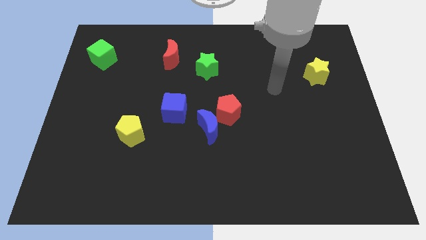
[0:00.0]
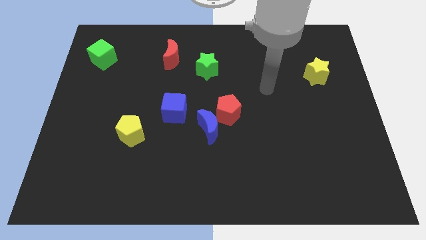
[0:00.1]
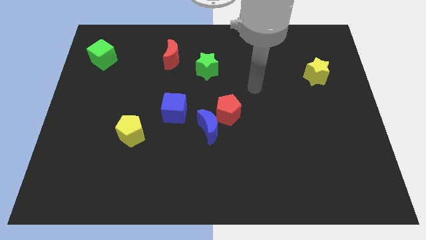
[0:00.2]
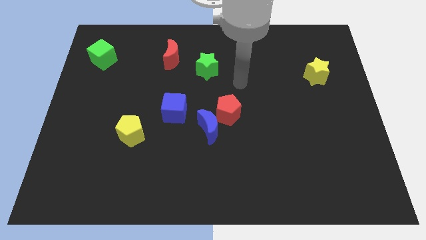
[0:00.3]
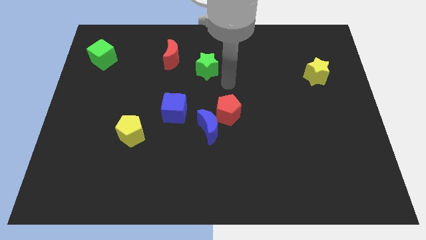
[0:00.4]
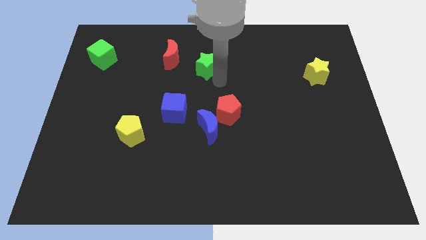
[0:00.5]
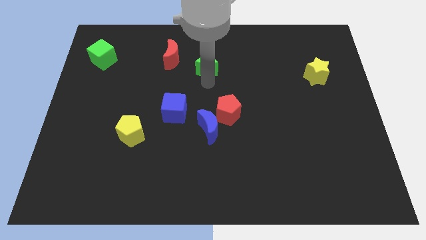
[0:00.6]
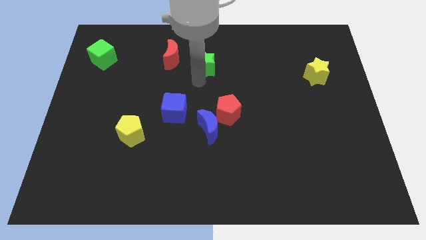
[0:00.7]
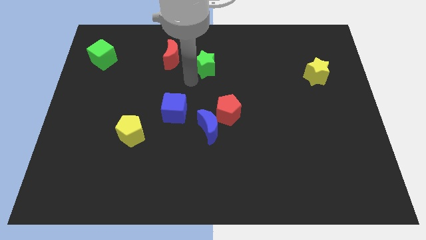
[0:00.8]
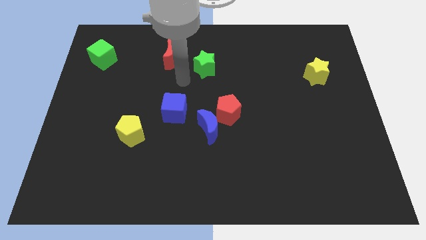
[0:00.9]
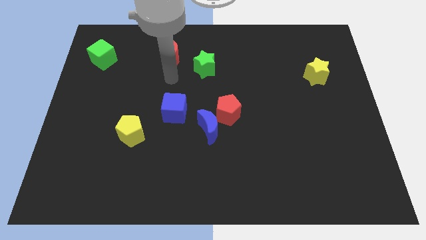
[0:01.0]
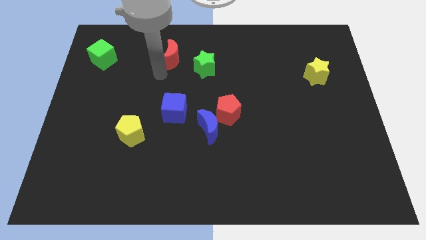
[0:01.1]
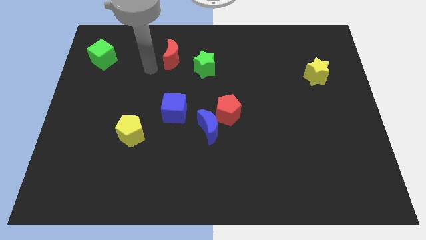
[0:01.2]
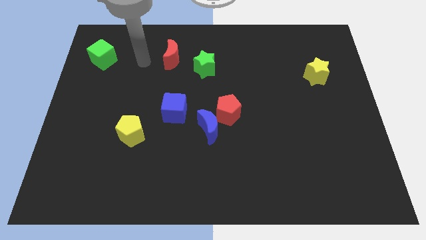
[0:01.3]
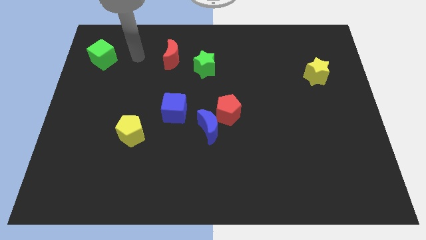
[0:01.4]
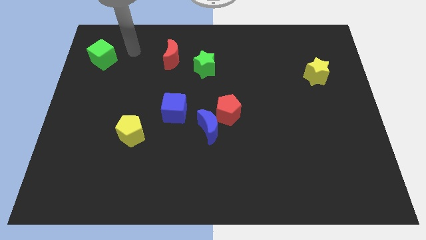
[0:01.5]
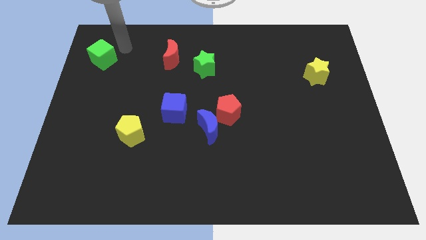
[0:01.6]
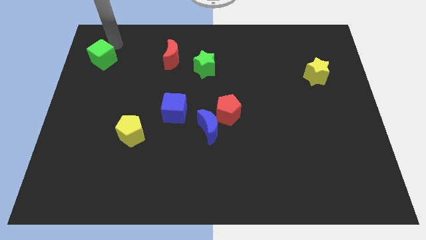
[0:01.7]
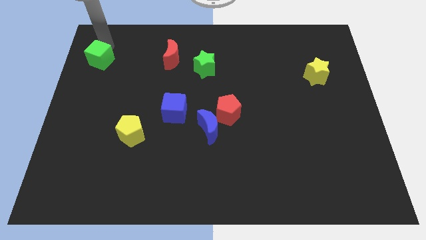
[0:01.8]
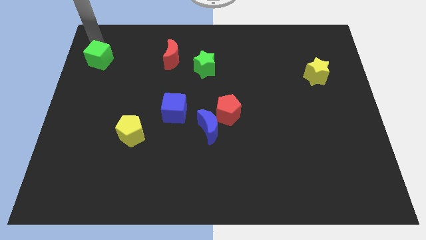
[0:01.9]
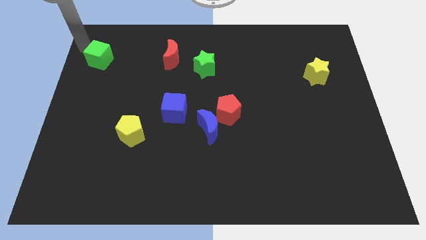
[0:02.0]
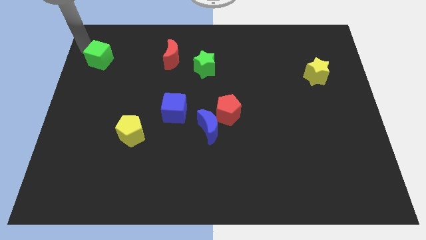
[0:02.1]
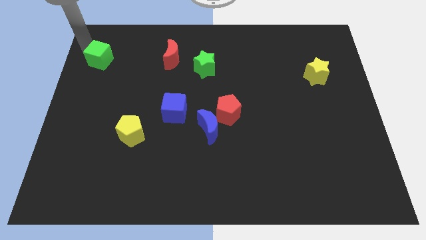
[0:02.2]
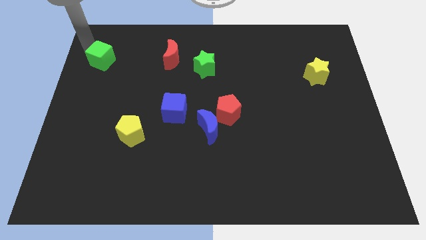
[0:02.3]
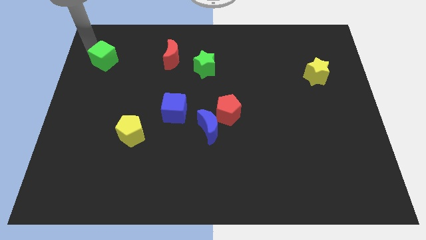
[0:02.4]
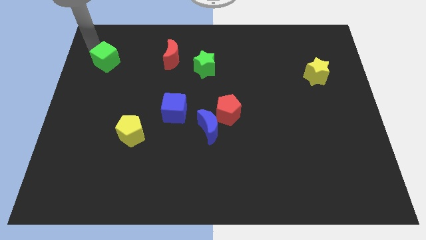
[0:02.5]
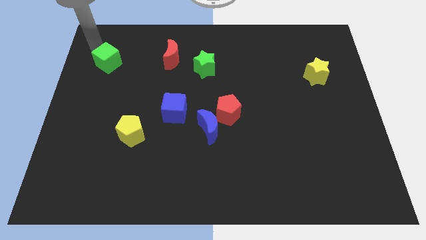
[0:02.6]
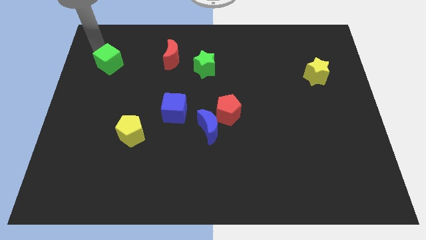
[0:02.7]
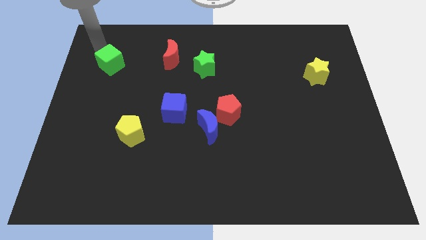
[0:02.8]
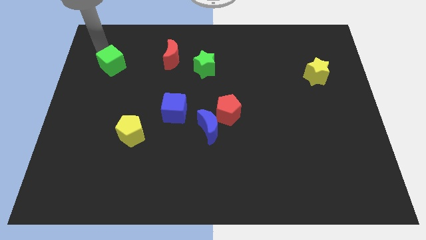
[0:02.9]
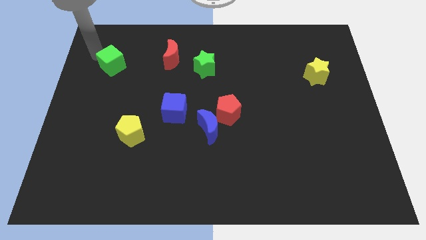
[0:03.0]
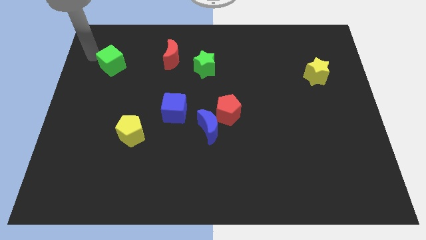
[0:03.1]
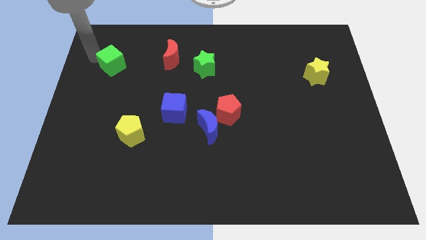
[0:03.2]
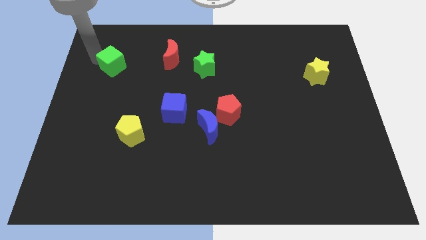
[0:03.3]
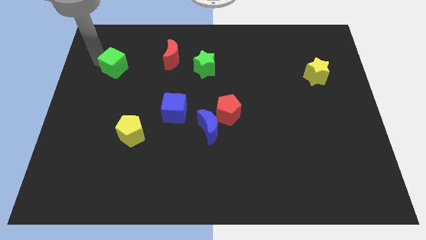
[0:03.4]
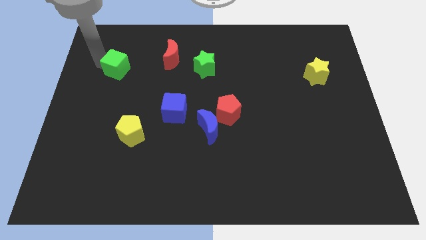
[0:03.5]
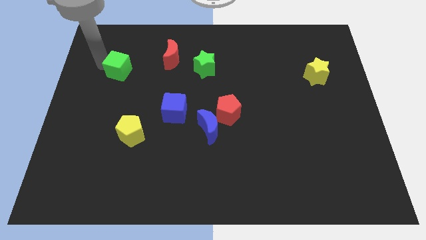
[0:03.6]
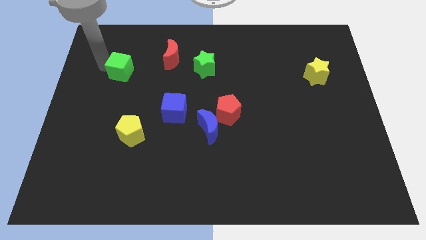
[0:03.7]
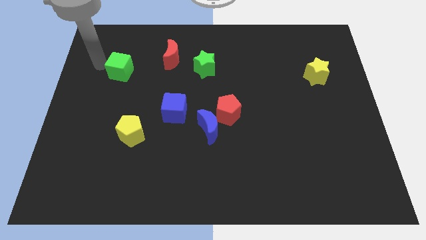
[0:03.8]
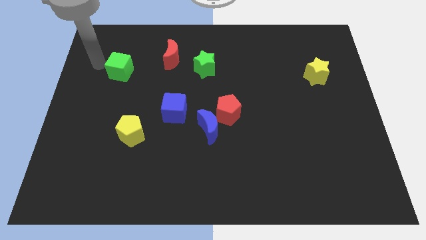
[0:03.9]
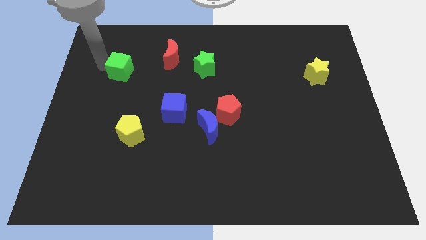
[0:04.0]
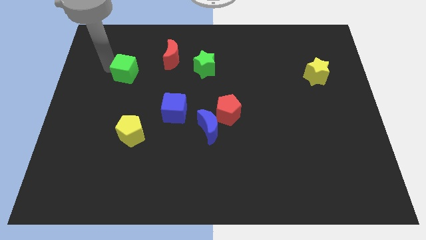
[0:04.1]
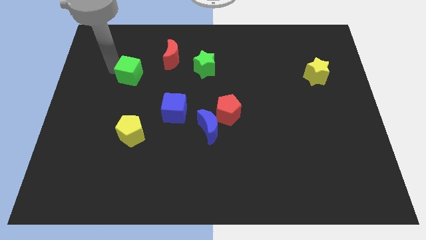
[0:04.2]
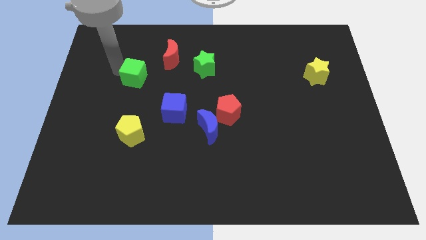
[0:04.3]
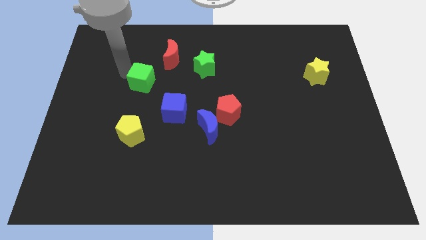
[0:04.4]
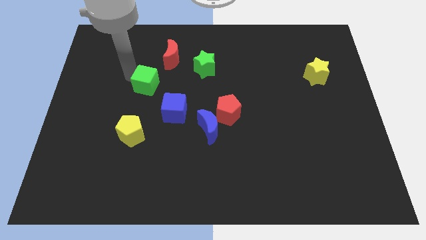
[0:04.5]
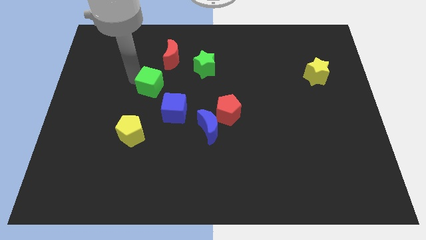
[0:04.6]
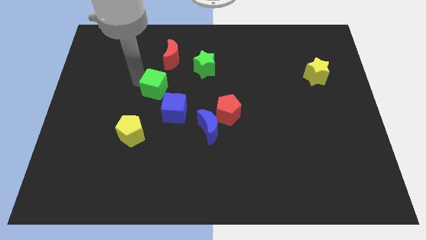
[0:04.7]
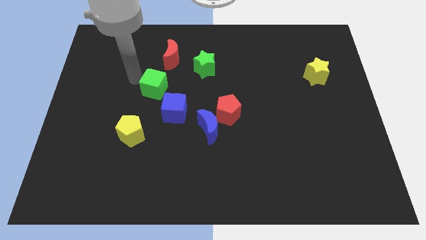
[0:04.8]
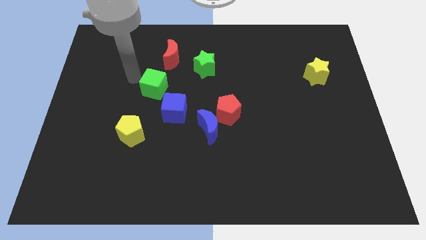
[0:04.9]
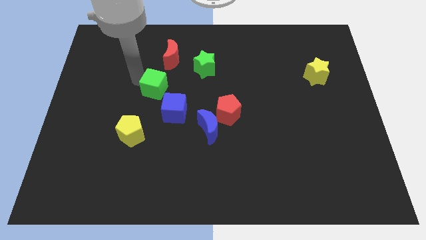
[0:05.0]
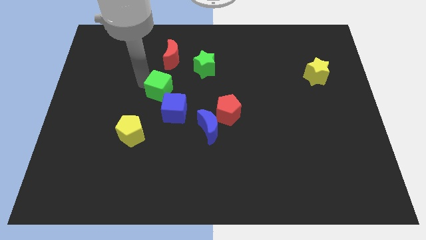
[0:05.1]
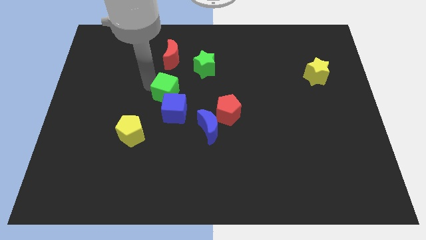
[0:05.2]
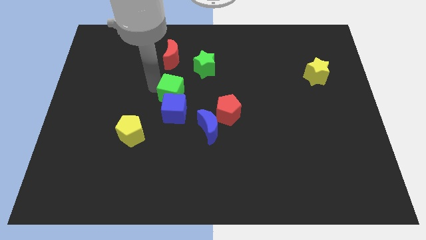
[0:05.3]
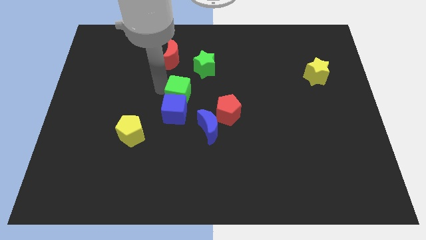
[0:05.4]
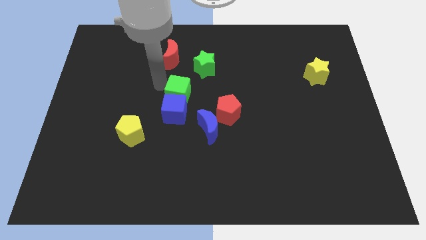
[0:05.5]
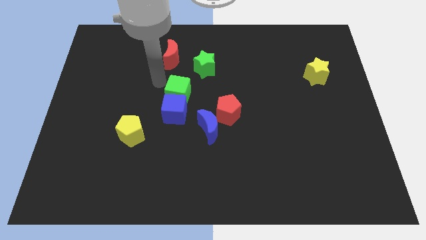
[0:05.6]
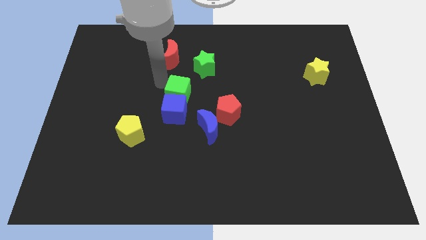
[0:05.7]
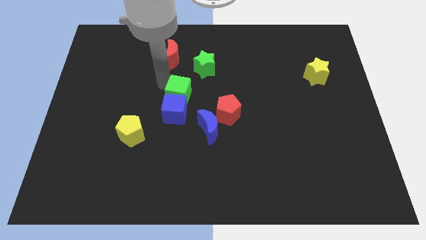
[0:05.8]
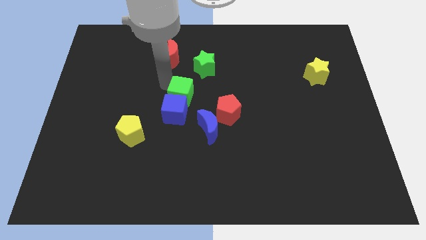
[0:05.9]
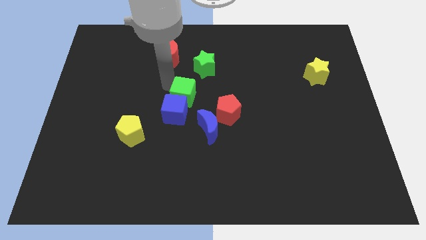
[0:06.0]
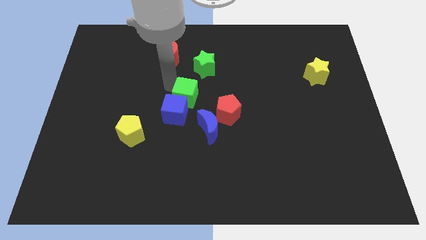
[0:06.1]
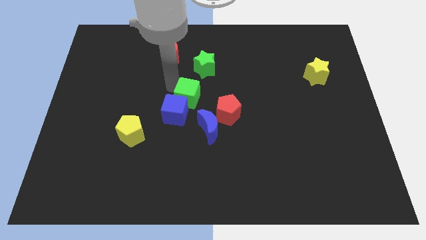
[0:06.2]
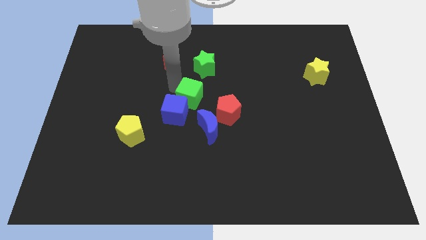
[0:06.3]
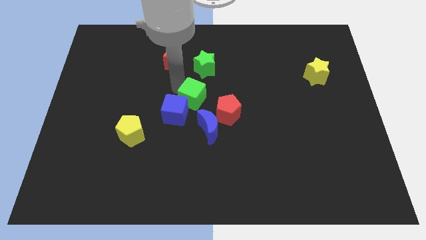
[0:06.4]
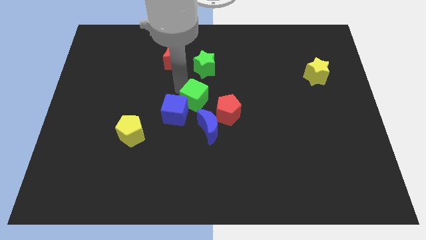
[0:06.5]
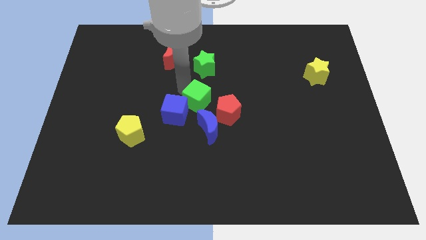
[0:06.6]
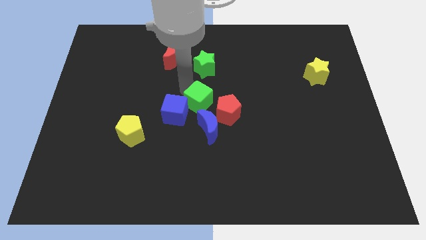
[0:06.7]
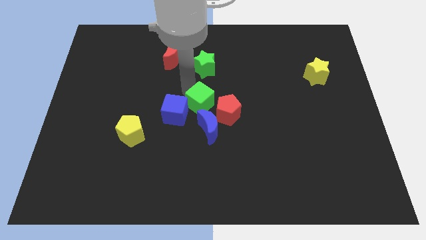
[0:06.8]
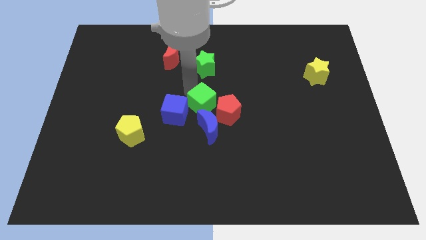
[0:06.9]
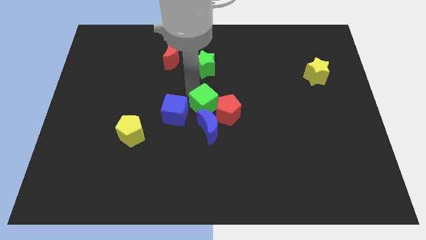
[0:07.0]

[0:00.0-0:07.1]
put the green cube to the red pentagon

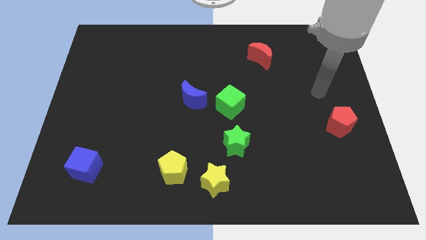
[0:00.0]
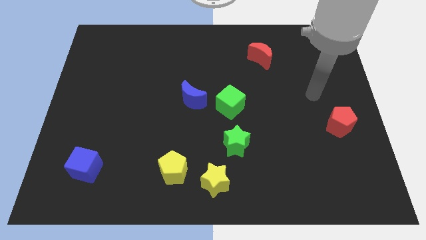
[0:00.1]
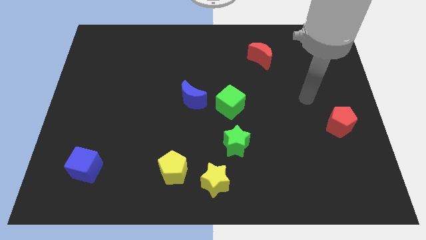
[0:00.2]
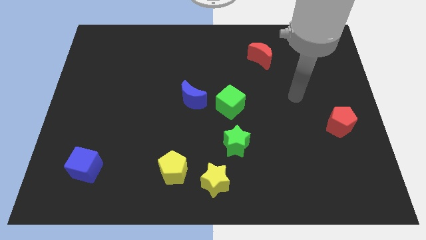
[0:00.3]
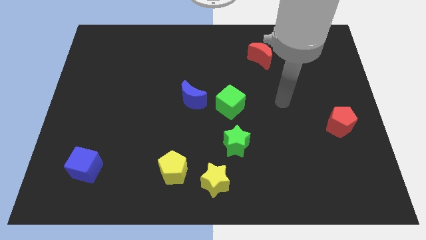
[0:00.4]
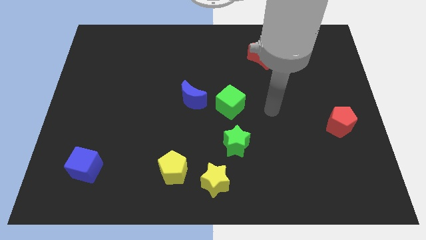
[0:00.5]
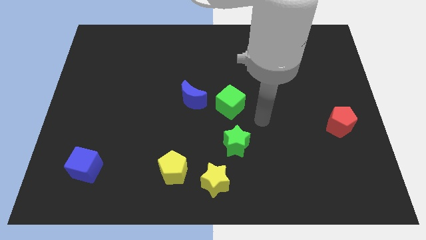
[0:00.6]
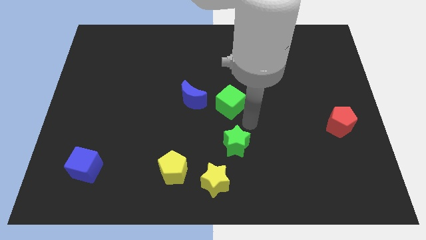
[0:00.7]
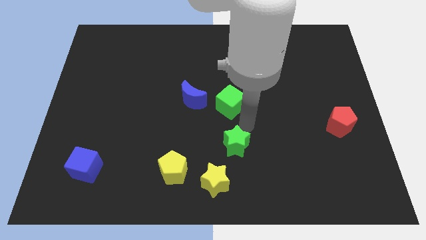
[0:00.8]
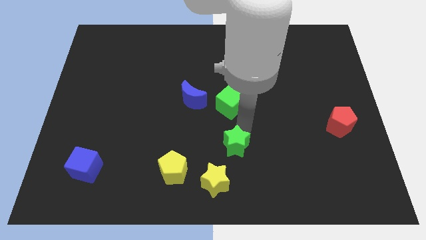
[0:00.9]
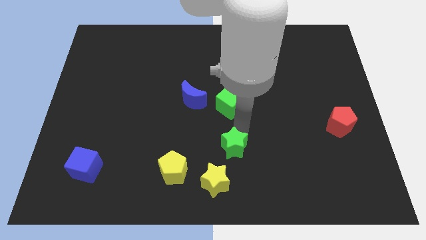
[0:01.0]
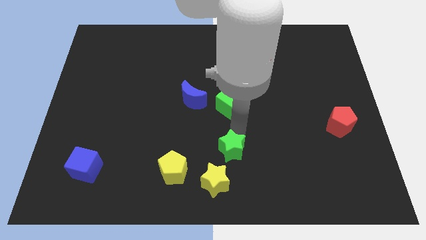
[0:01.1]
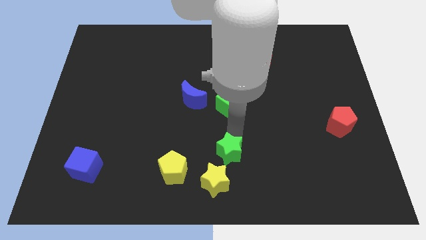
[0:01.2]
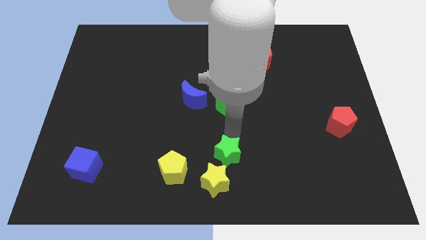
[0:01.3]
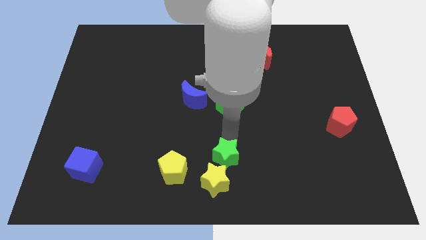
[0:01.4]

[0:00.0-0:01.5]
slide the green star next to the yellow star
